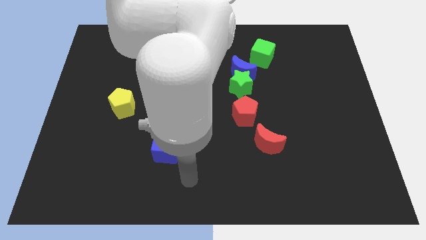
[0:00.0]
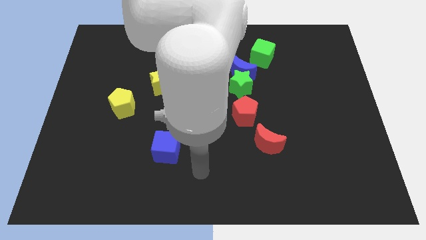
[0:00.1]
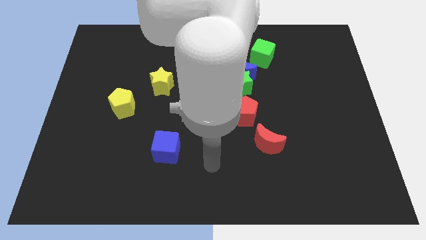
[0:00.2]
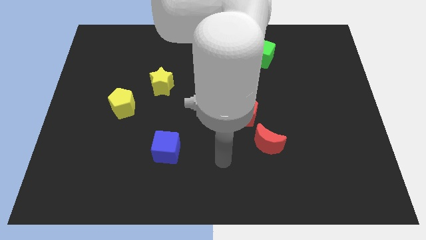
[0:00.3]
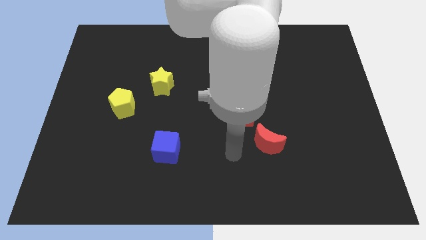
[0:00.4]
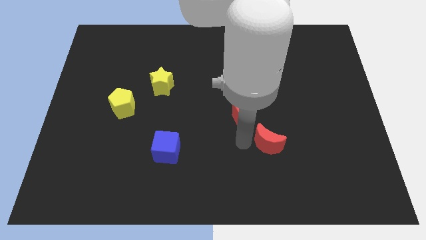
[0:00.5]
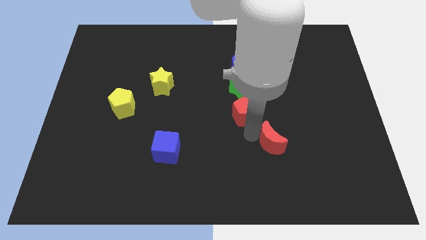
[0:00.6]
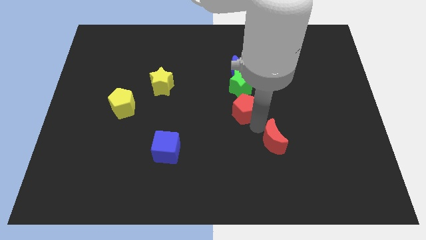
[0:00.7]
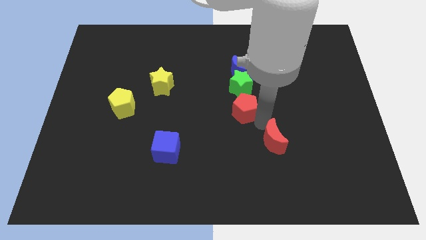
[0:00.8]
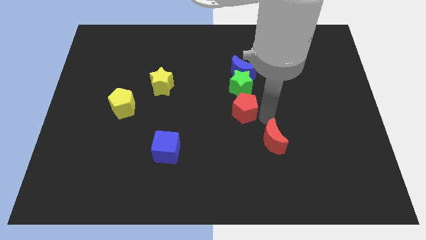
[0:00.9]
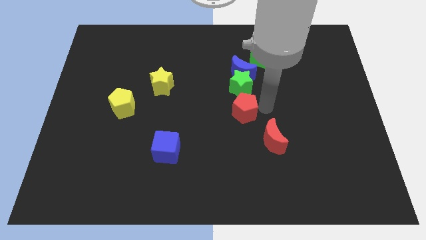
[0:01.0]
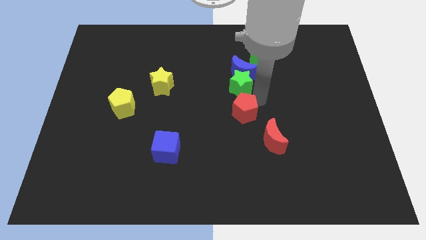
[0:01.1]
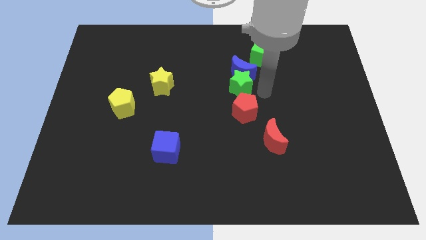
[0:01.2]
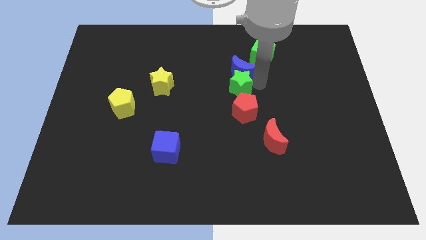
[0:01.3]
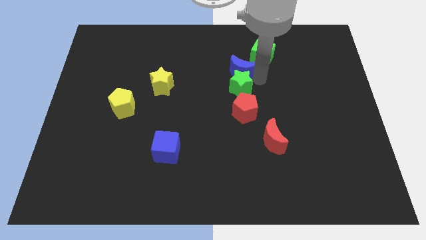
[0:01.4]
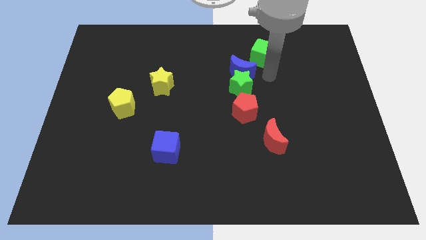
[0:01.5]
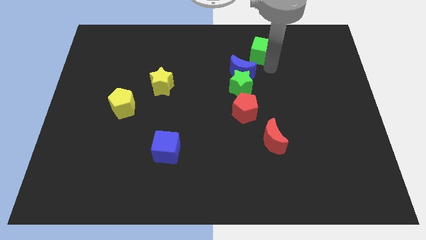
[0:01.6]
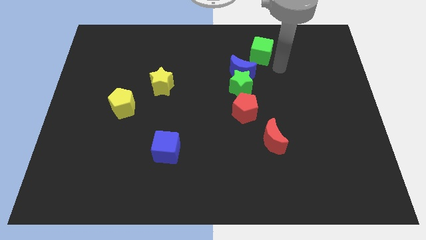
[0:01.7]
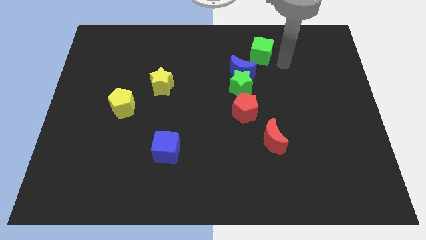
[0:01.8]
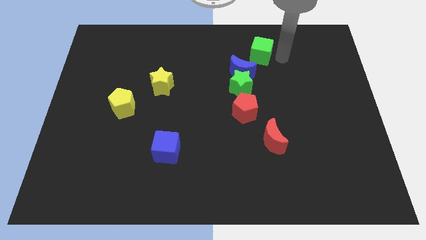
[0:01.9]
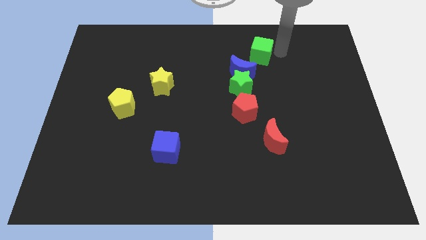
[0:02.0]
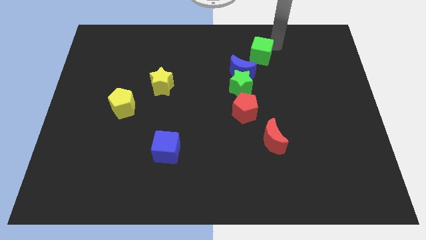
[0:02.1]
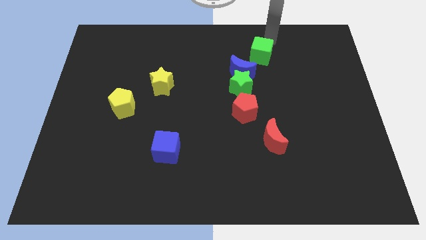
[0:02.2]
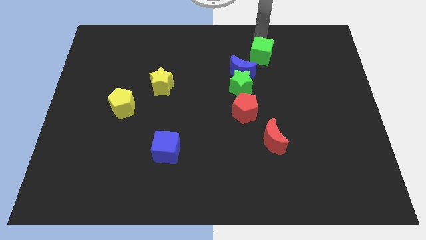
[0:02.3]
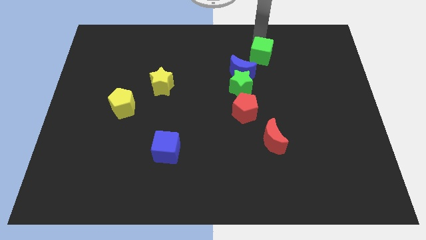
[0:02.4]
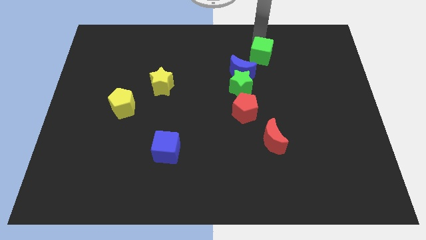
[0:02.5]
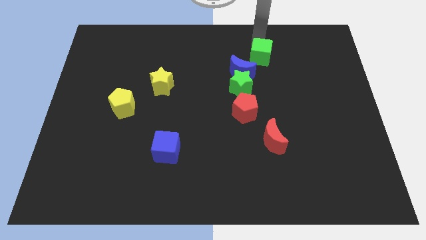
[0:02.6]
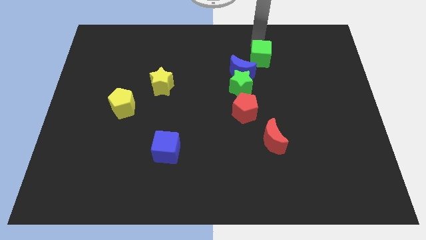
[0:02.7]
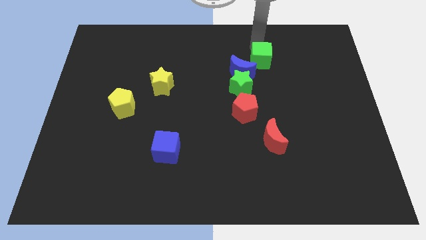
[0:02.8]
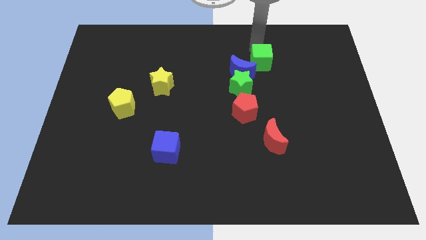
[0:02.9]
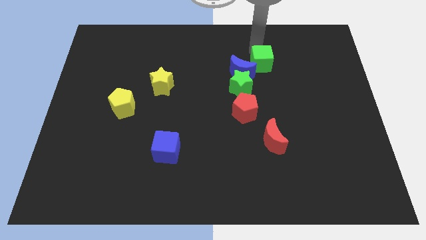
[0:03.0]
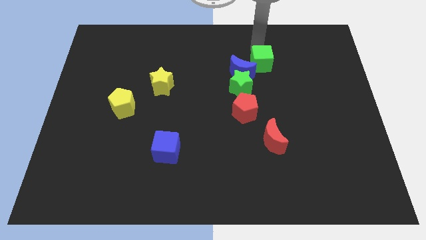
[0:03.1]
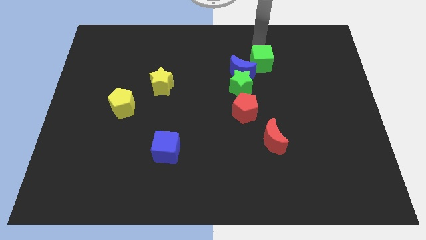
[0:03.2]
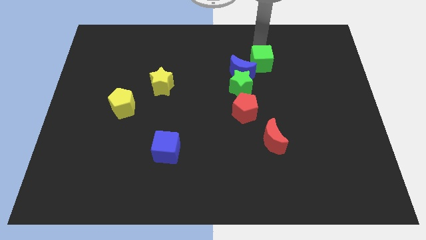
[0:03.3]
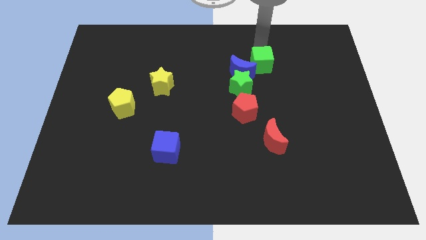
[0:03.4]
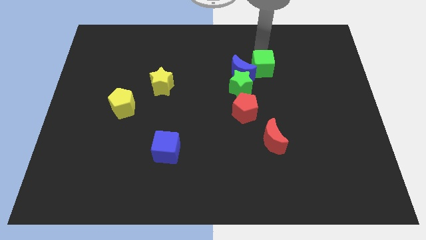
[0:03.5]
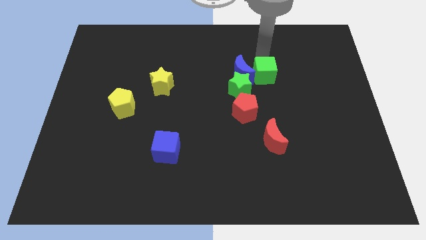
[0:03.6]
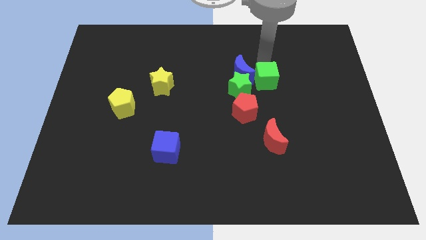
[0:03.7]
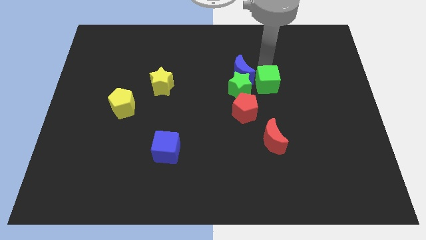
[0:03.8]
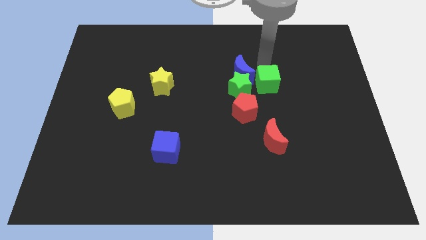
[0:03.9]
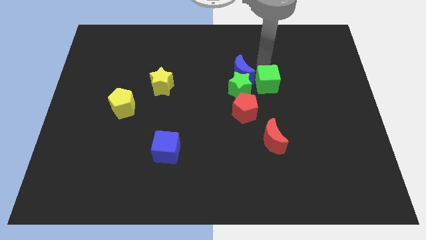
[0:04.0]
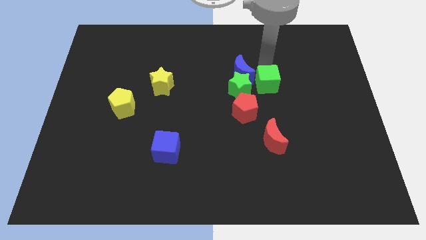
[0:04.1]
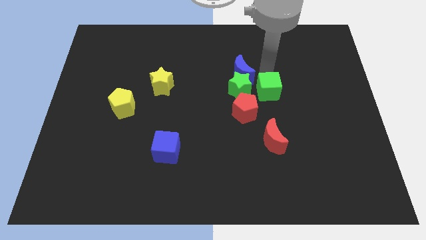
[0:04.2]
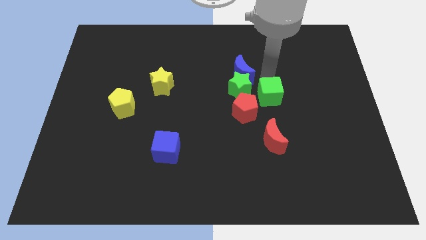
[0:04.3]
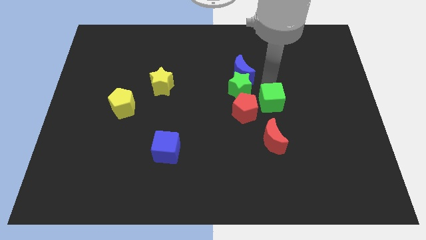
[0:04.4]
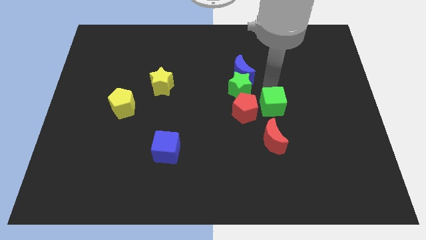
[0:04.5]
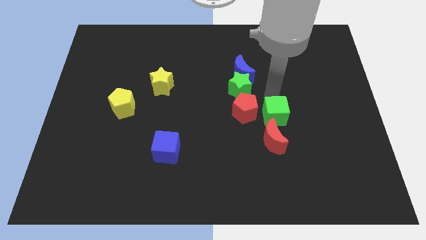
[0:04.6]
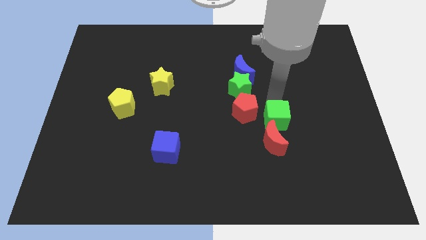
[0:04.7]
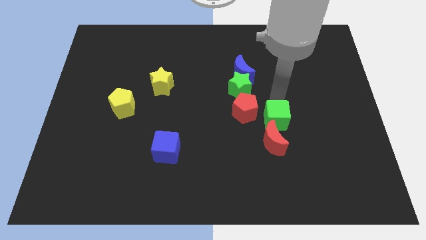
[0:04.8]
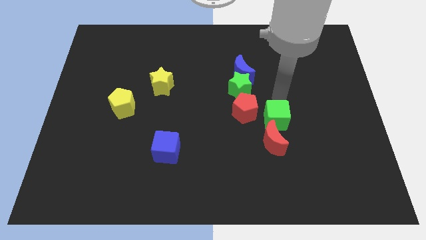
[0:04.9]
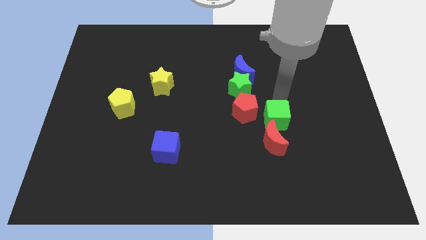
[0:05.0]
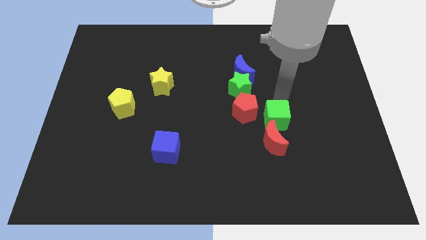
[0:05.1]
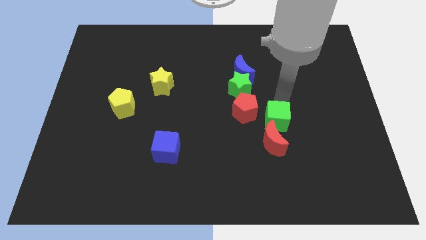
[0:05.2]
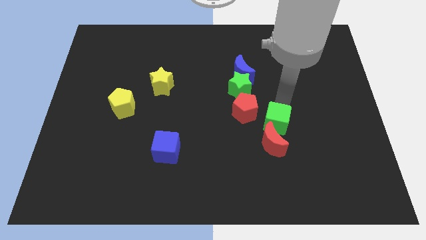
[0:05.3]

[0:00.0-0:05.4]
slide the green cube next to the red moon

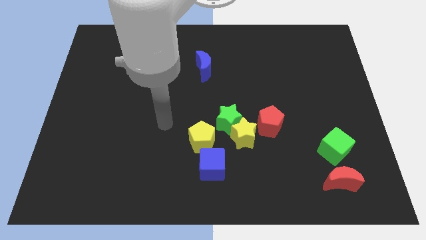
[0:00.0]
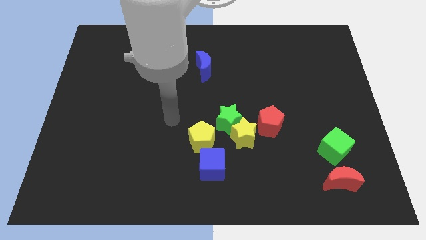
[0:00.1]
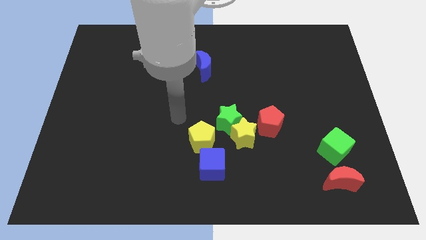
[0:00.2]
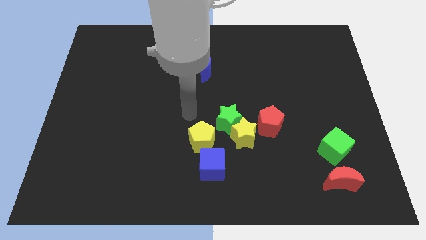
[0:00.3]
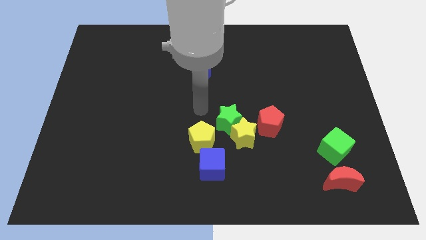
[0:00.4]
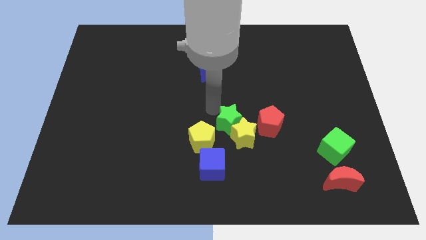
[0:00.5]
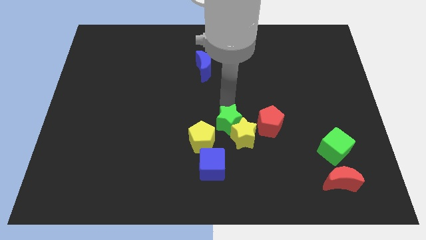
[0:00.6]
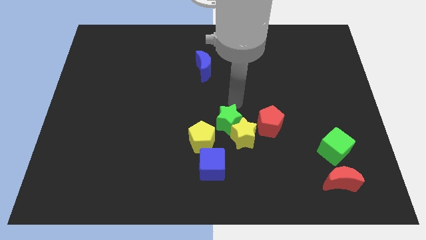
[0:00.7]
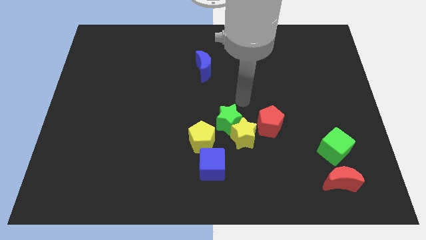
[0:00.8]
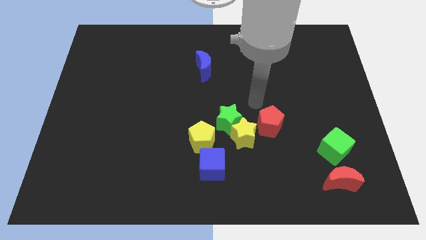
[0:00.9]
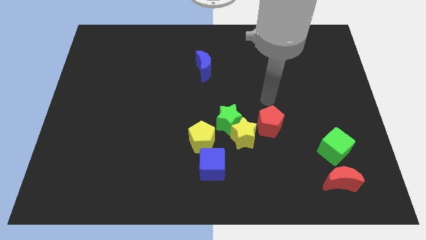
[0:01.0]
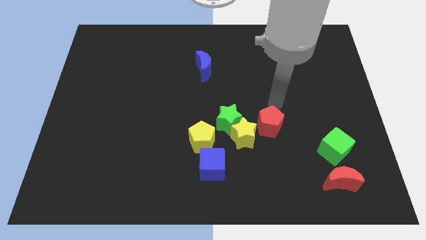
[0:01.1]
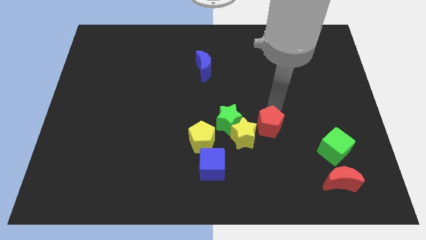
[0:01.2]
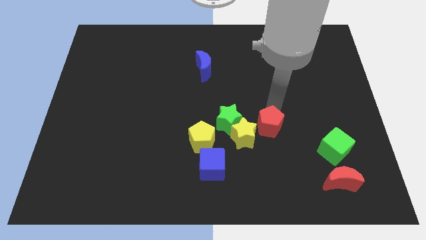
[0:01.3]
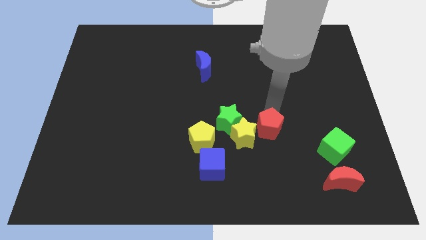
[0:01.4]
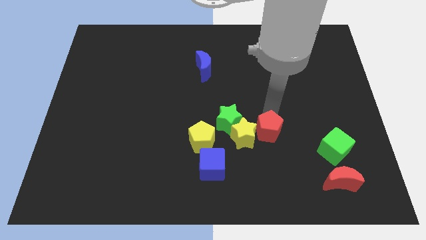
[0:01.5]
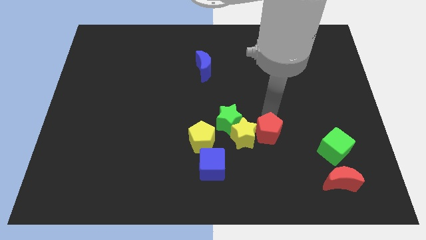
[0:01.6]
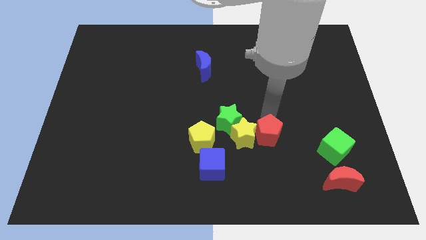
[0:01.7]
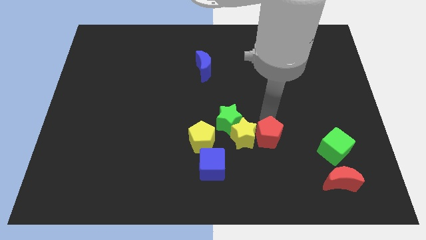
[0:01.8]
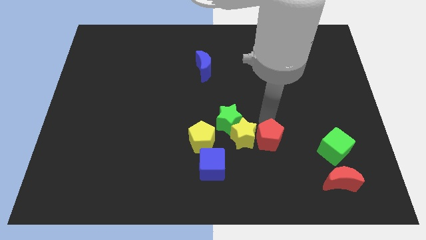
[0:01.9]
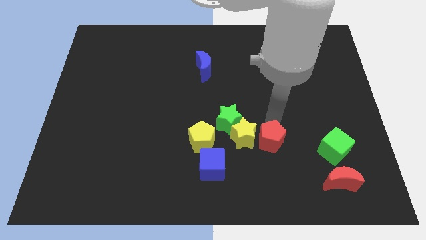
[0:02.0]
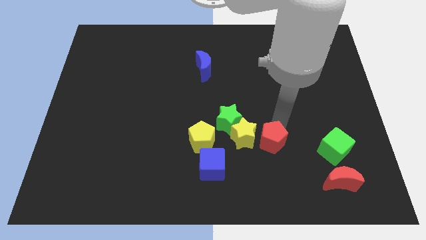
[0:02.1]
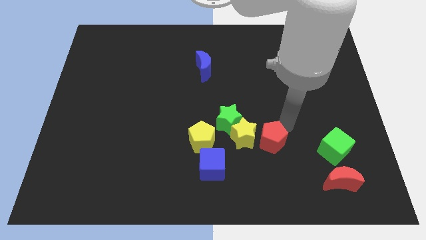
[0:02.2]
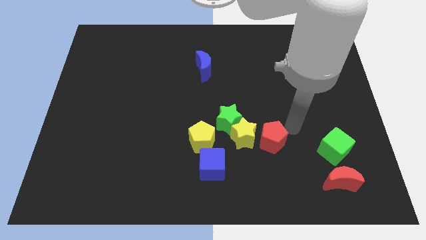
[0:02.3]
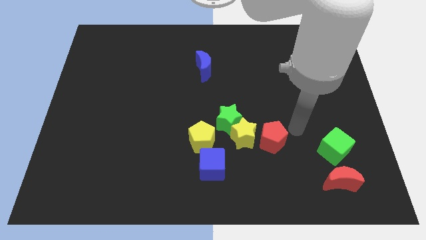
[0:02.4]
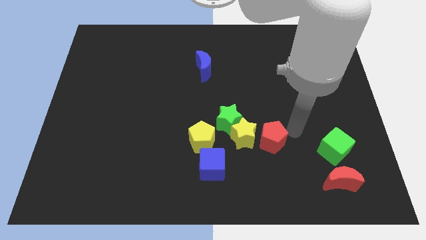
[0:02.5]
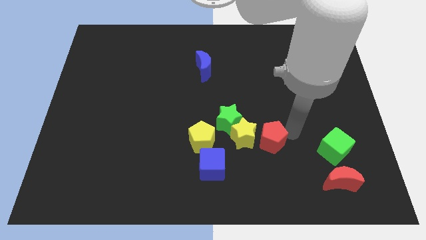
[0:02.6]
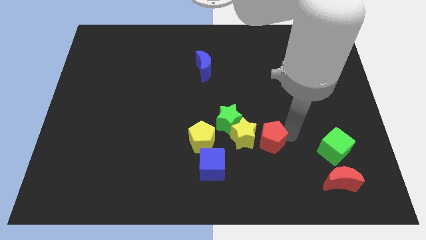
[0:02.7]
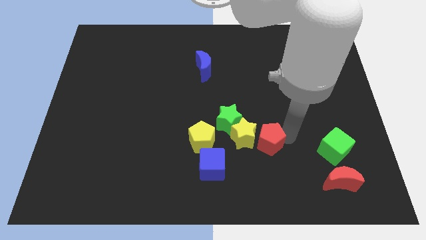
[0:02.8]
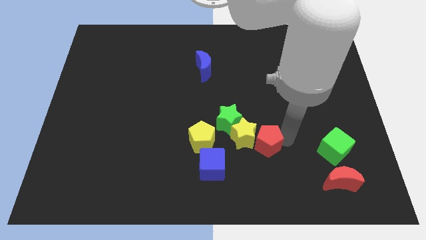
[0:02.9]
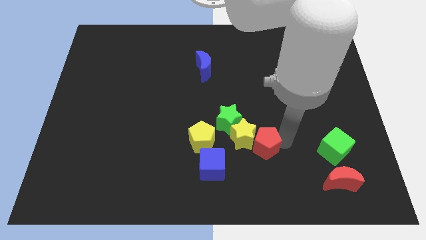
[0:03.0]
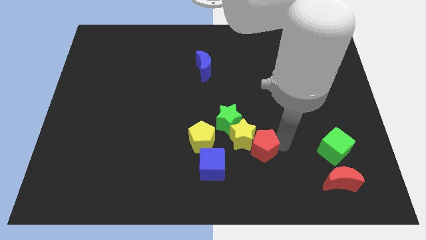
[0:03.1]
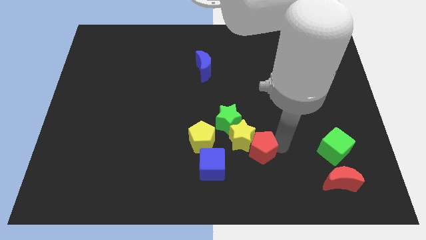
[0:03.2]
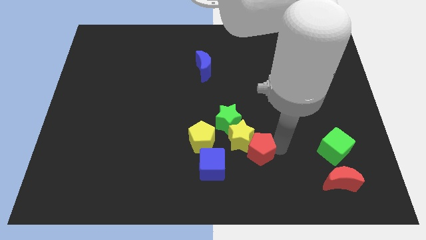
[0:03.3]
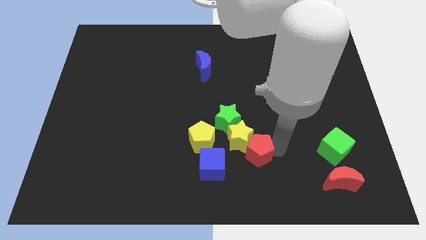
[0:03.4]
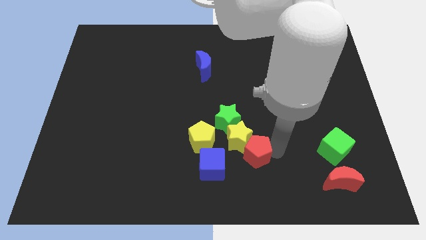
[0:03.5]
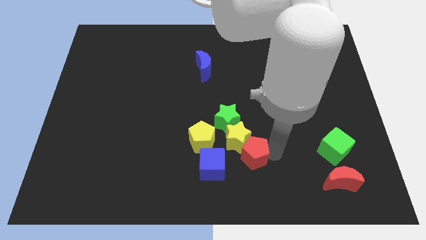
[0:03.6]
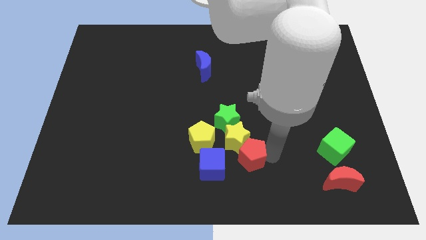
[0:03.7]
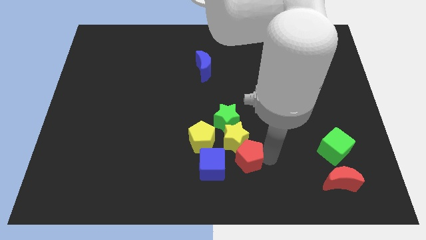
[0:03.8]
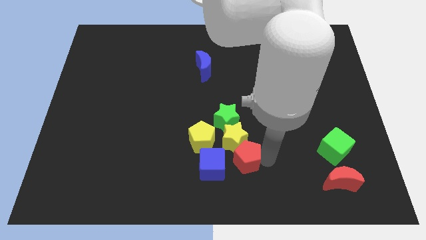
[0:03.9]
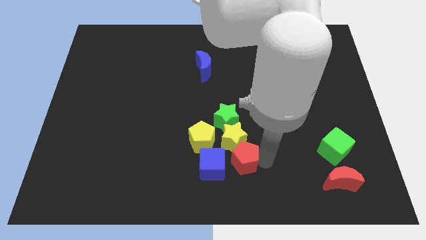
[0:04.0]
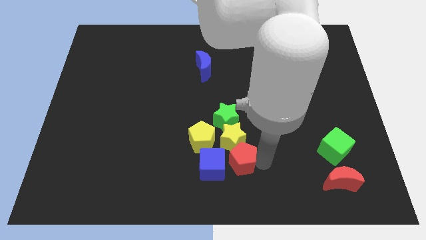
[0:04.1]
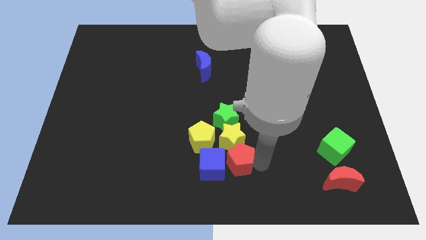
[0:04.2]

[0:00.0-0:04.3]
slide the red pentagon next to the blue cube
